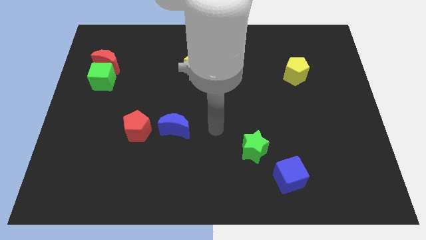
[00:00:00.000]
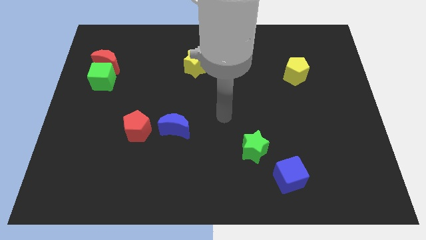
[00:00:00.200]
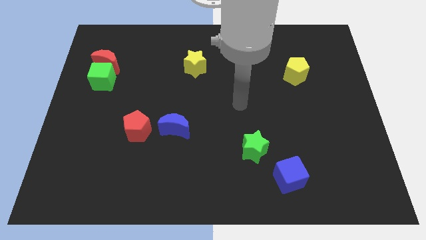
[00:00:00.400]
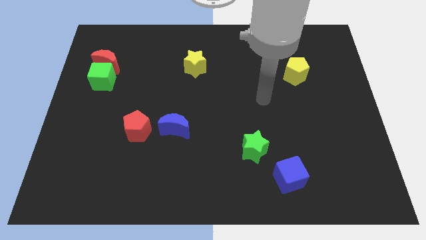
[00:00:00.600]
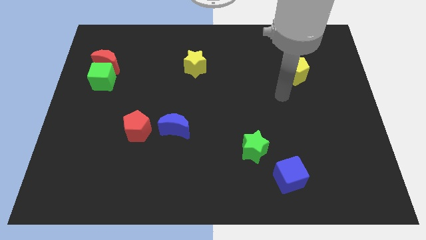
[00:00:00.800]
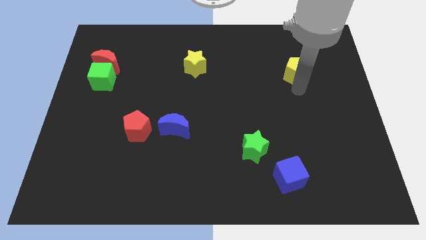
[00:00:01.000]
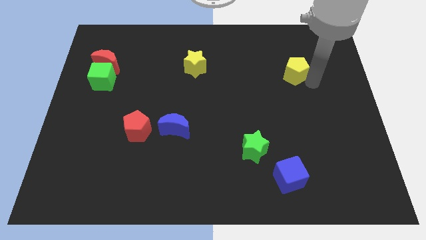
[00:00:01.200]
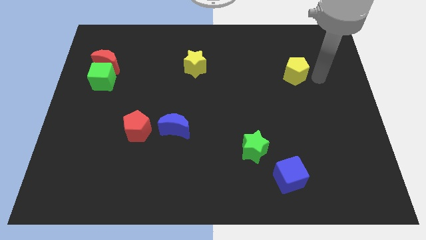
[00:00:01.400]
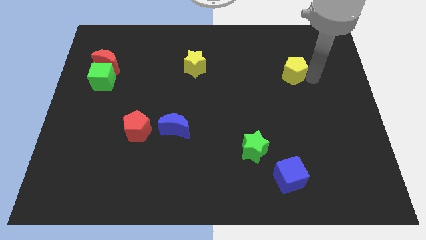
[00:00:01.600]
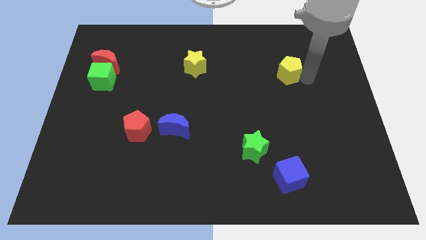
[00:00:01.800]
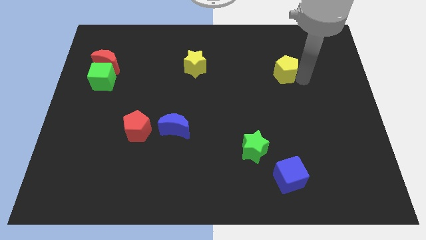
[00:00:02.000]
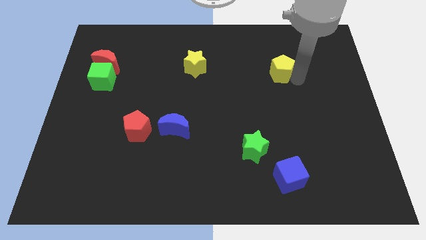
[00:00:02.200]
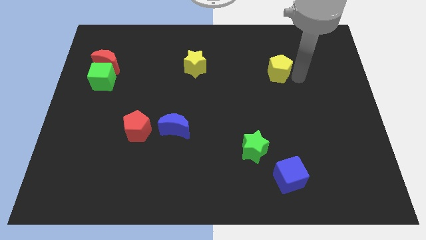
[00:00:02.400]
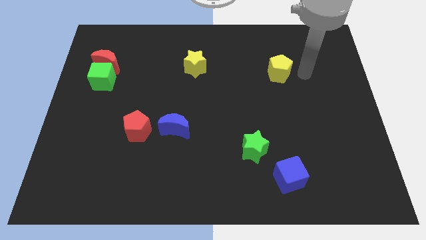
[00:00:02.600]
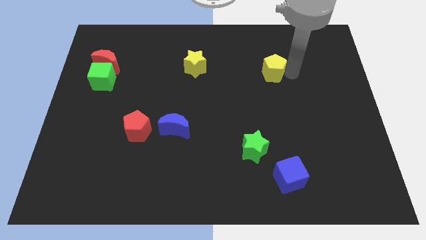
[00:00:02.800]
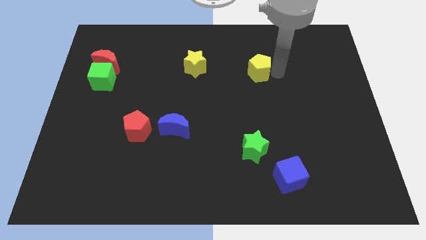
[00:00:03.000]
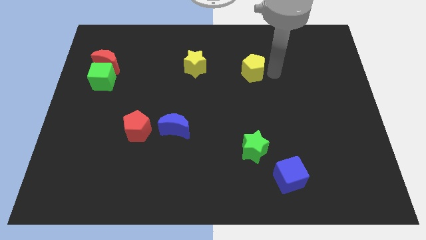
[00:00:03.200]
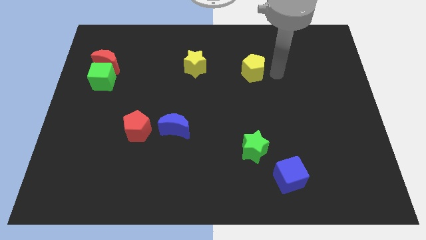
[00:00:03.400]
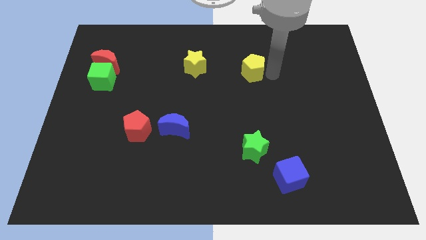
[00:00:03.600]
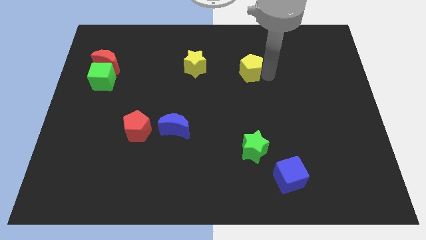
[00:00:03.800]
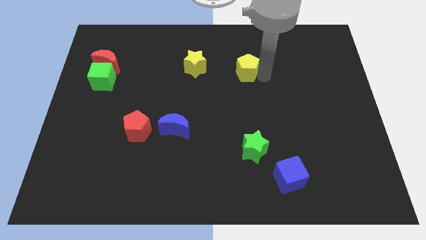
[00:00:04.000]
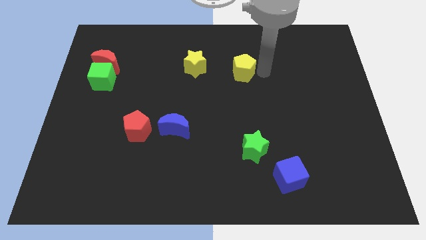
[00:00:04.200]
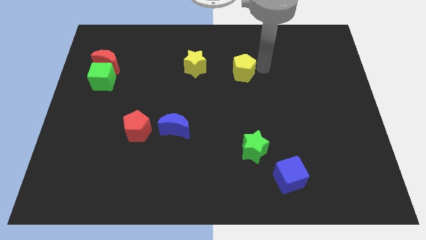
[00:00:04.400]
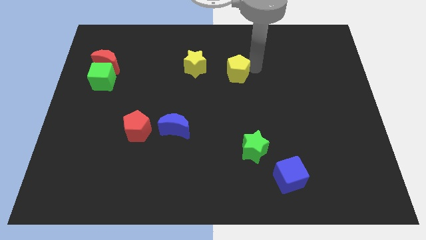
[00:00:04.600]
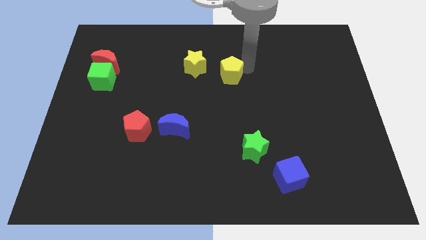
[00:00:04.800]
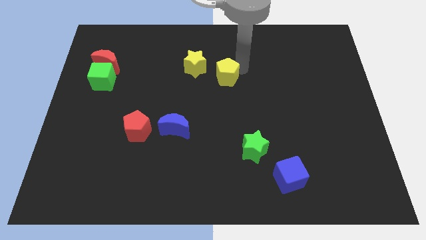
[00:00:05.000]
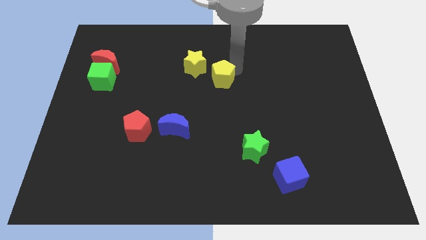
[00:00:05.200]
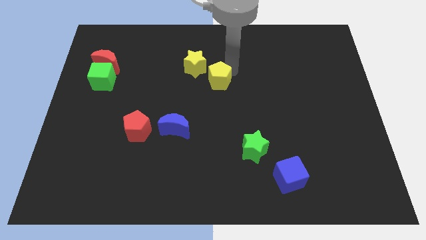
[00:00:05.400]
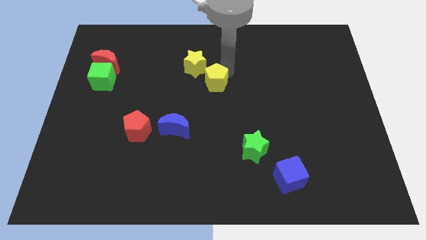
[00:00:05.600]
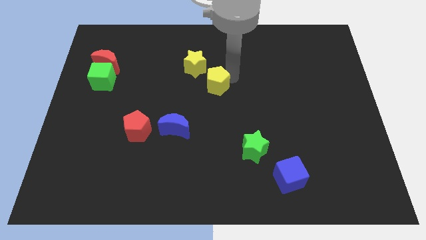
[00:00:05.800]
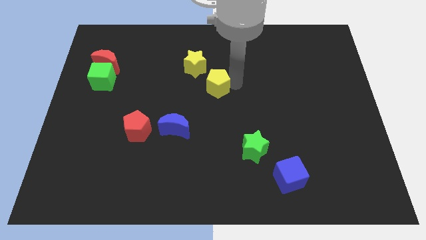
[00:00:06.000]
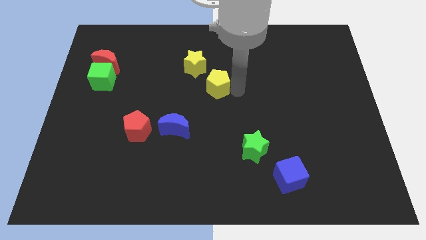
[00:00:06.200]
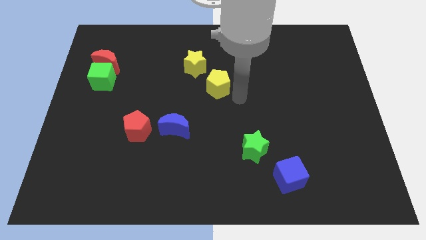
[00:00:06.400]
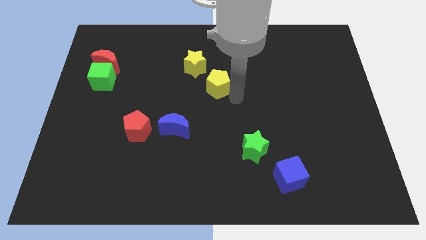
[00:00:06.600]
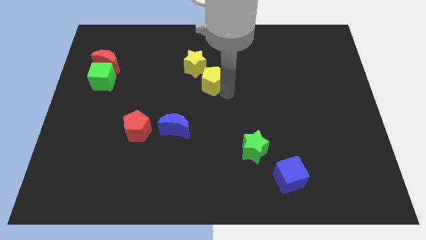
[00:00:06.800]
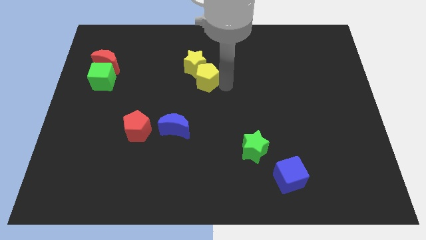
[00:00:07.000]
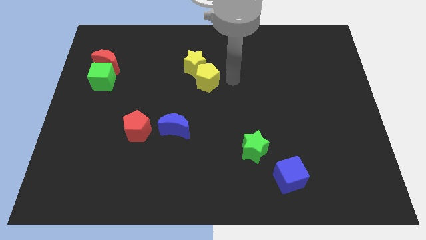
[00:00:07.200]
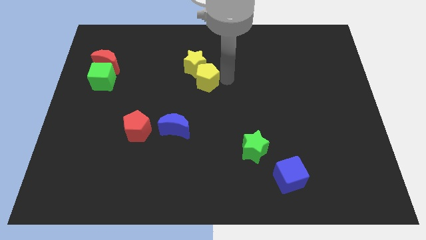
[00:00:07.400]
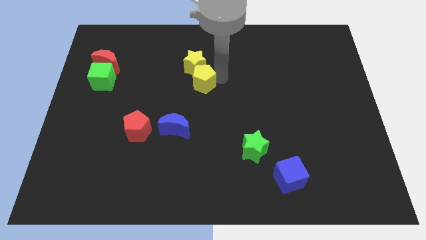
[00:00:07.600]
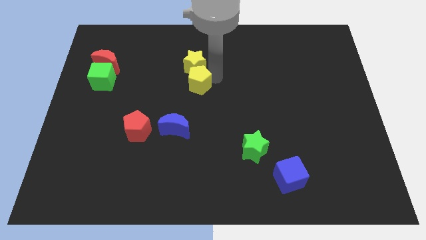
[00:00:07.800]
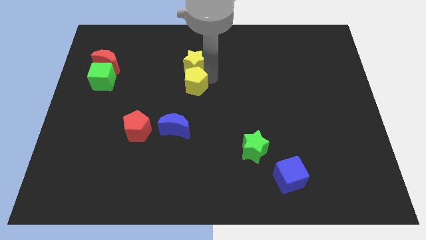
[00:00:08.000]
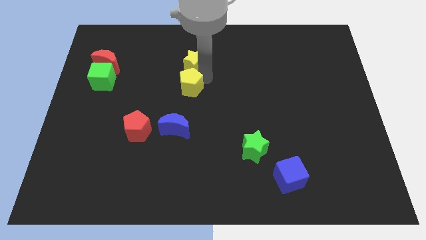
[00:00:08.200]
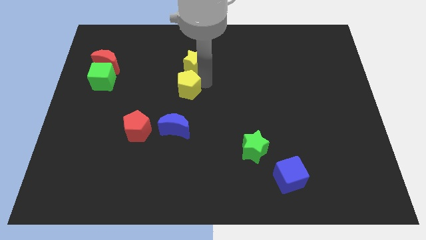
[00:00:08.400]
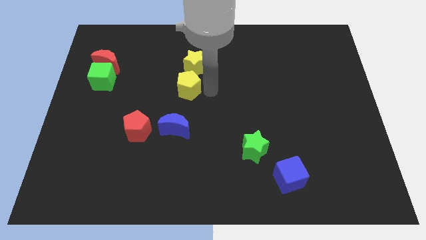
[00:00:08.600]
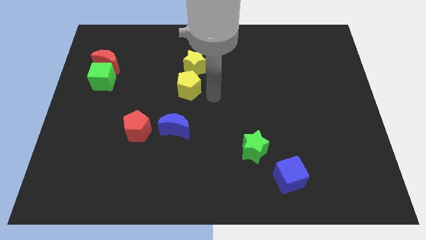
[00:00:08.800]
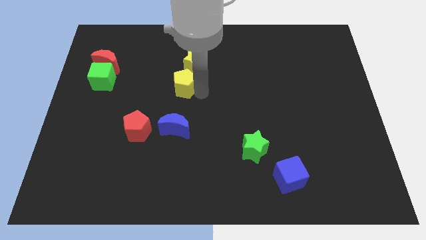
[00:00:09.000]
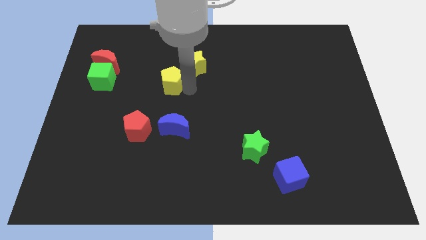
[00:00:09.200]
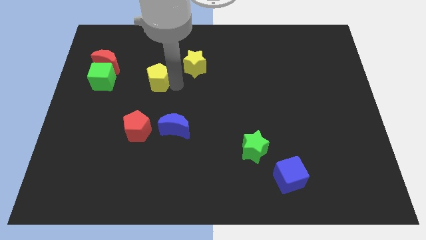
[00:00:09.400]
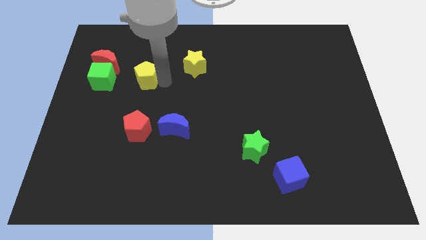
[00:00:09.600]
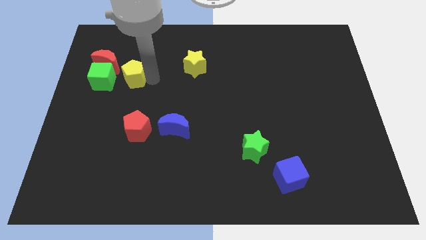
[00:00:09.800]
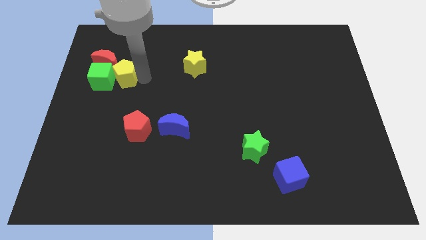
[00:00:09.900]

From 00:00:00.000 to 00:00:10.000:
put the yellow pentagon to the green cube

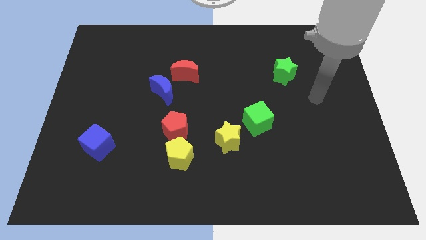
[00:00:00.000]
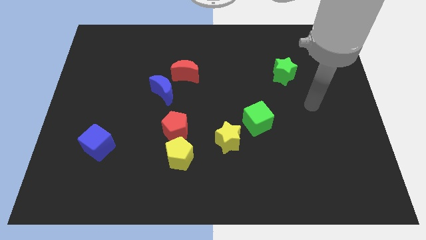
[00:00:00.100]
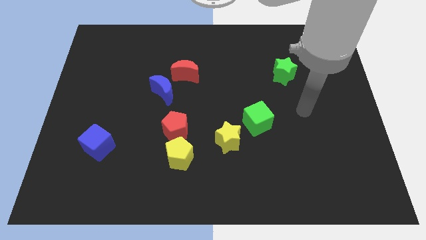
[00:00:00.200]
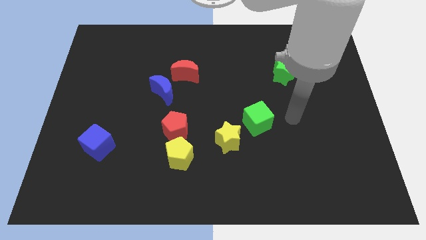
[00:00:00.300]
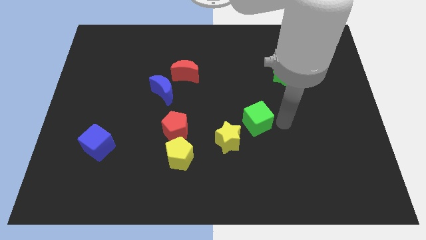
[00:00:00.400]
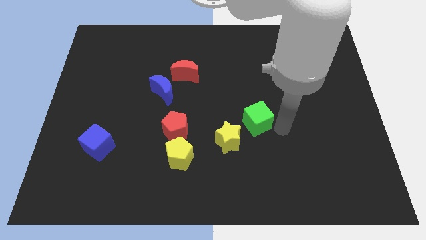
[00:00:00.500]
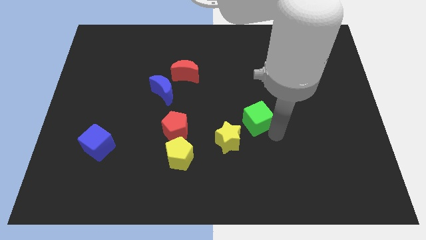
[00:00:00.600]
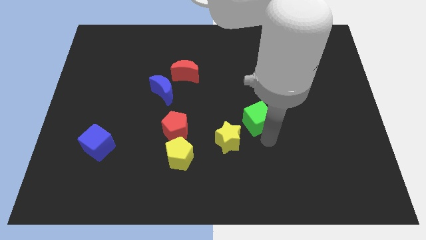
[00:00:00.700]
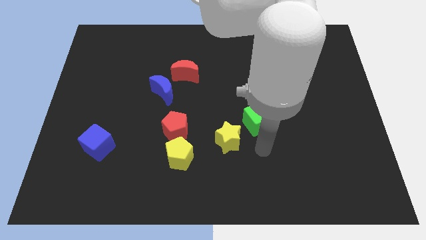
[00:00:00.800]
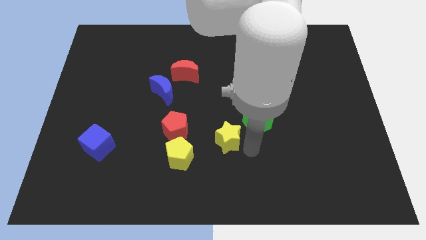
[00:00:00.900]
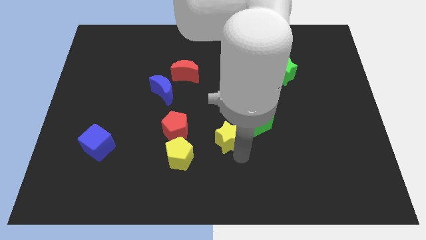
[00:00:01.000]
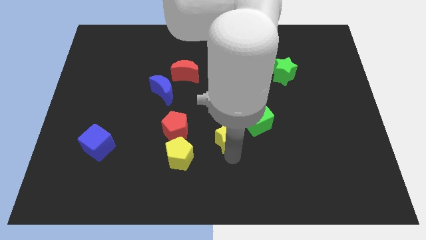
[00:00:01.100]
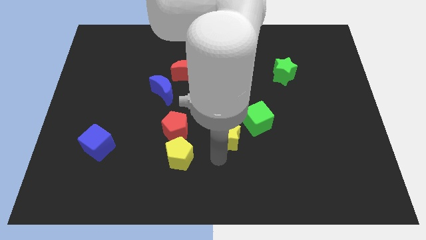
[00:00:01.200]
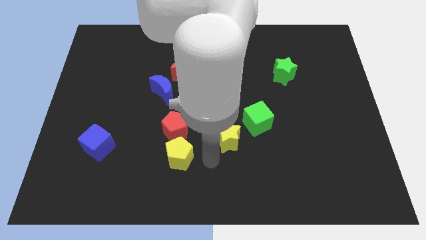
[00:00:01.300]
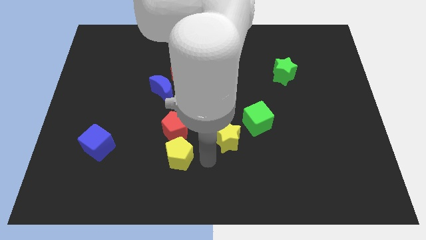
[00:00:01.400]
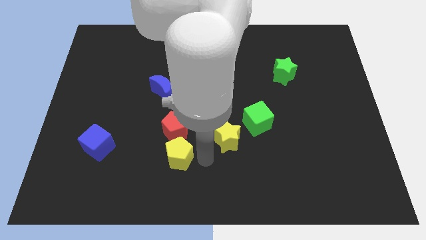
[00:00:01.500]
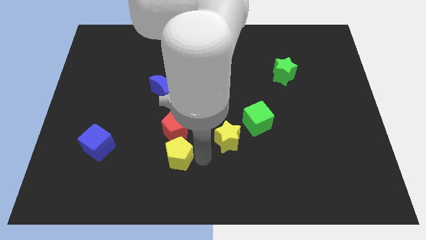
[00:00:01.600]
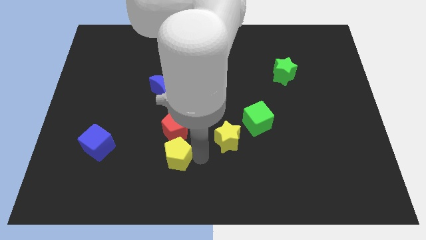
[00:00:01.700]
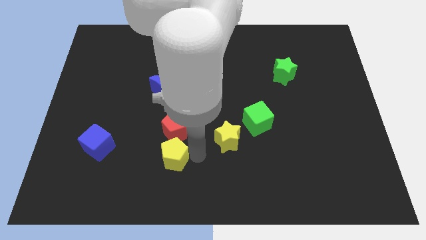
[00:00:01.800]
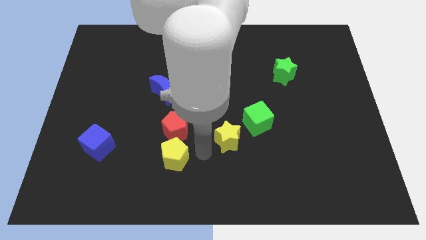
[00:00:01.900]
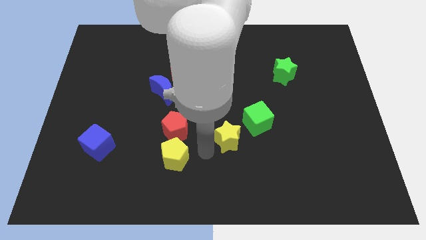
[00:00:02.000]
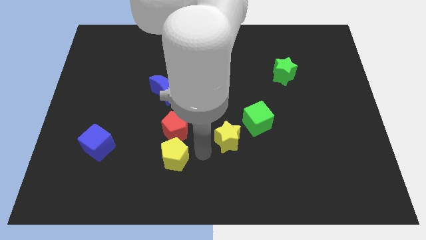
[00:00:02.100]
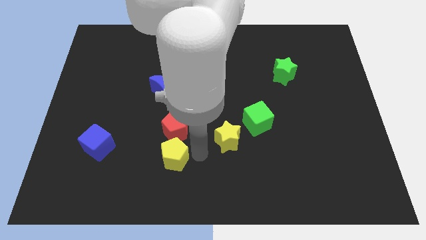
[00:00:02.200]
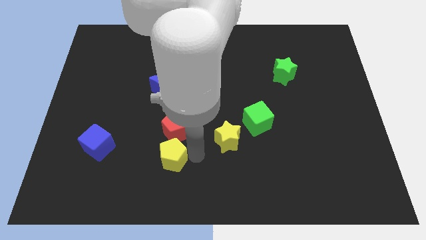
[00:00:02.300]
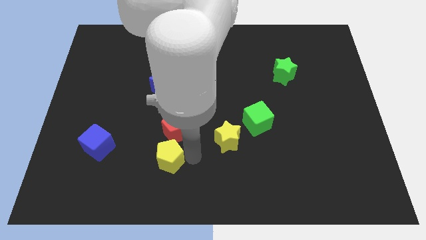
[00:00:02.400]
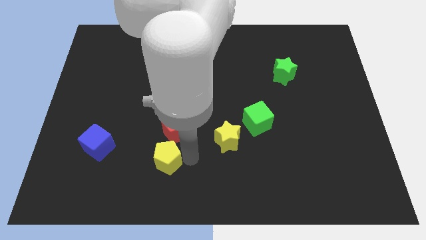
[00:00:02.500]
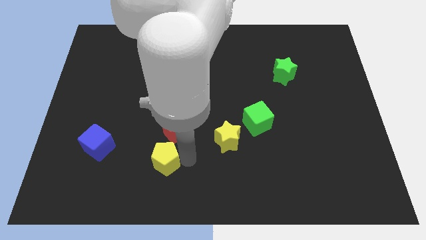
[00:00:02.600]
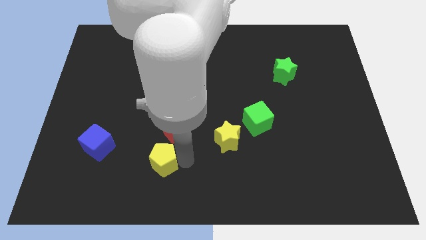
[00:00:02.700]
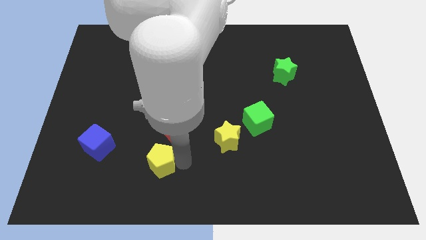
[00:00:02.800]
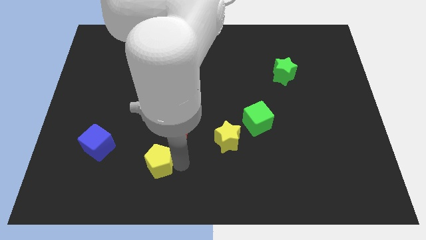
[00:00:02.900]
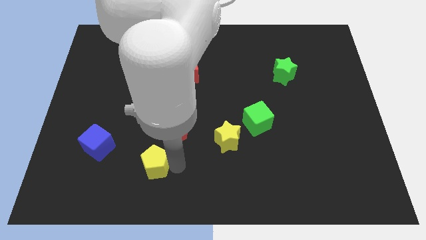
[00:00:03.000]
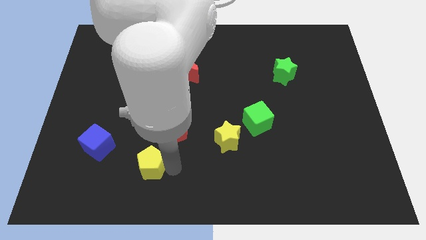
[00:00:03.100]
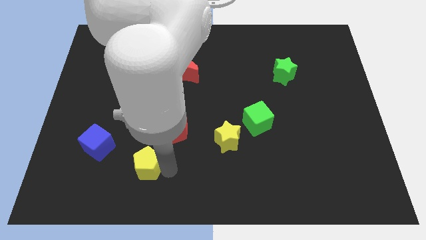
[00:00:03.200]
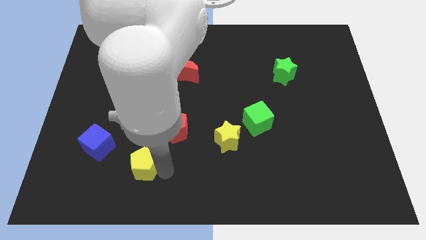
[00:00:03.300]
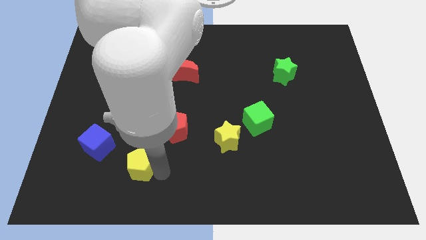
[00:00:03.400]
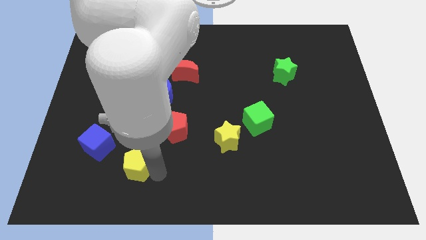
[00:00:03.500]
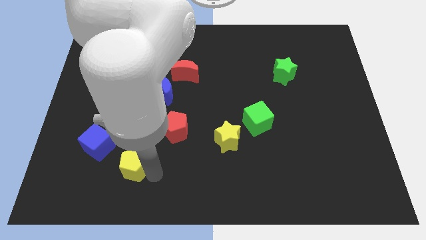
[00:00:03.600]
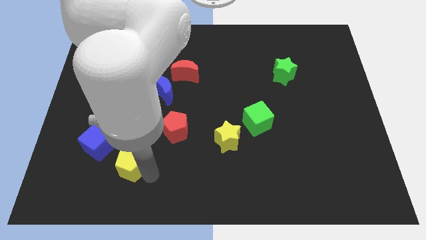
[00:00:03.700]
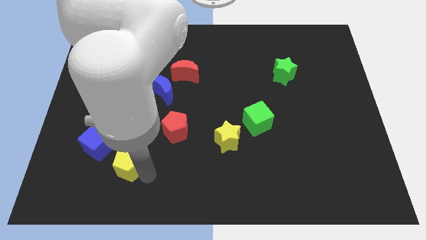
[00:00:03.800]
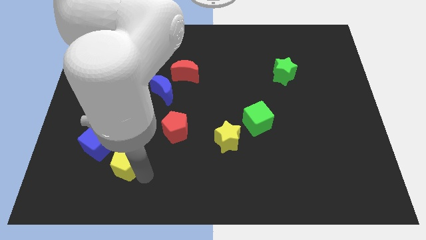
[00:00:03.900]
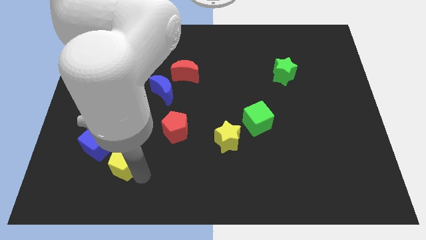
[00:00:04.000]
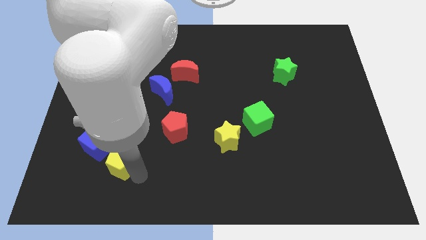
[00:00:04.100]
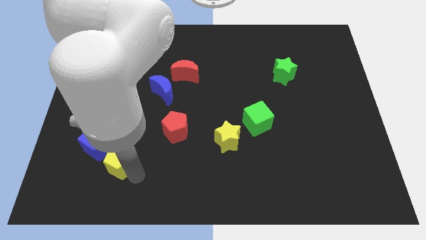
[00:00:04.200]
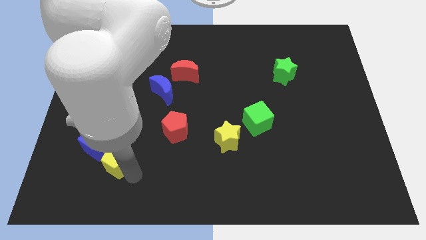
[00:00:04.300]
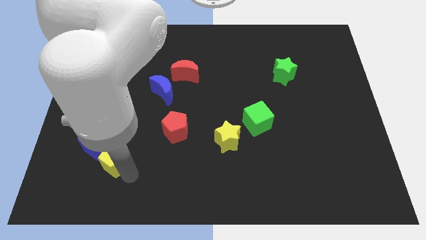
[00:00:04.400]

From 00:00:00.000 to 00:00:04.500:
slide the yellow pentagon towards the blue cube
